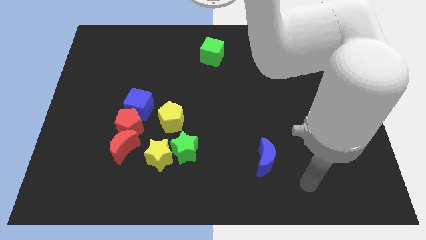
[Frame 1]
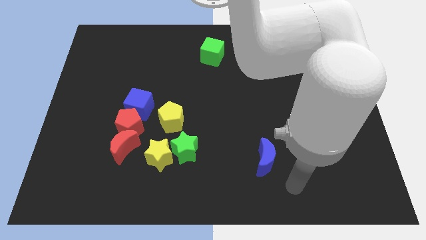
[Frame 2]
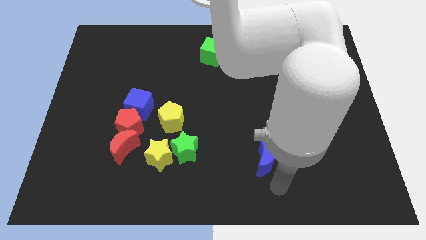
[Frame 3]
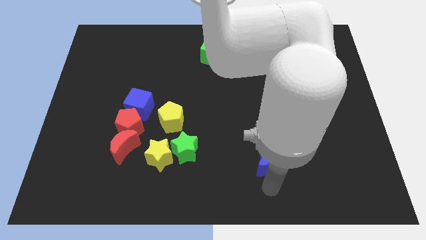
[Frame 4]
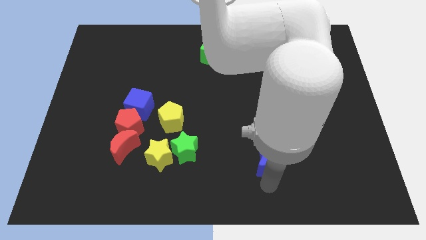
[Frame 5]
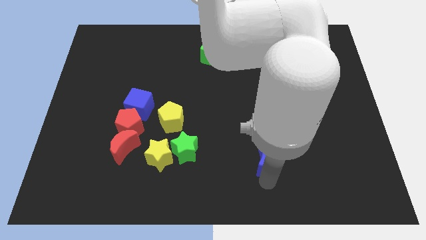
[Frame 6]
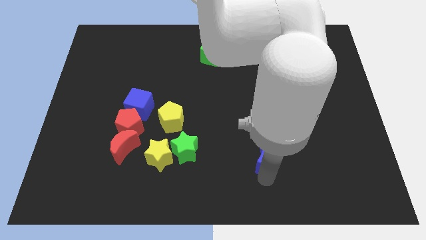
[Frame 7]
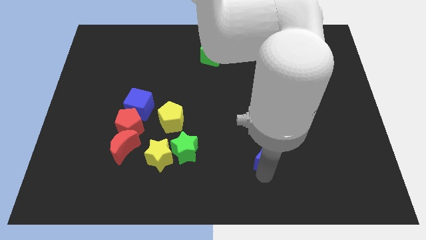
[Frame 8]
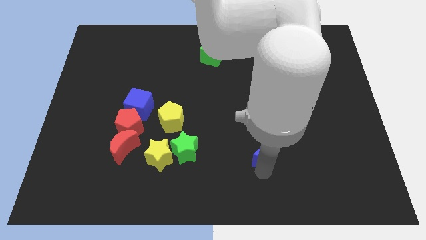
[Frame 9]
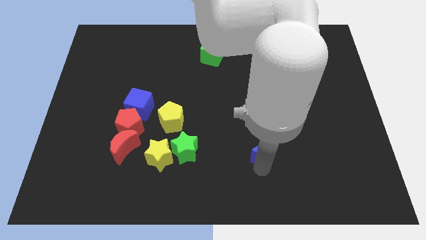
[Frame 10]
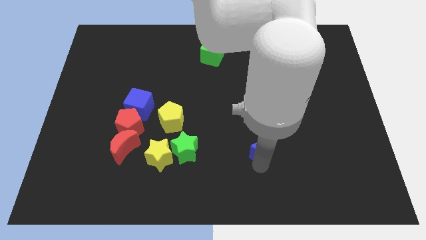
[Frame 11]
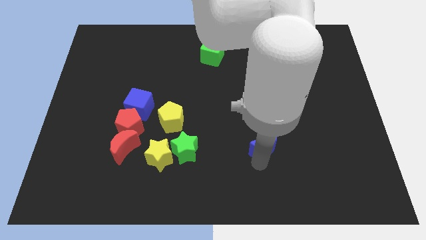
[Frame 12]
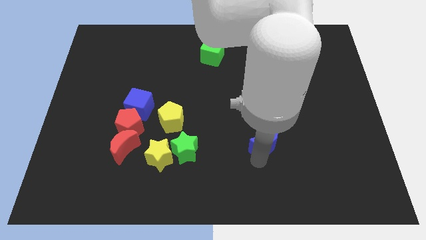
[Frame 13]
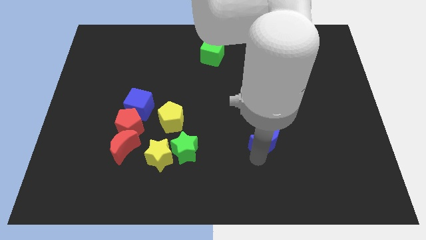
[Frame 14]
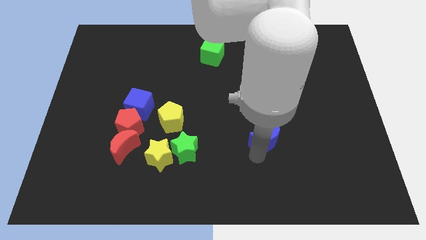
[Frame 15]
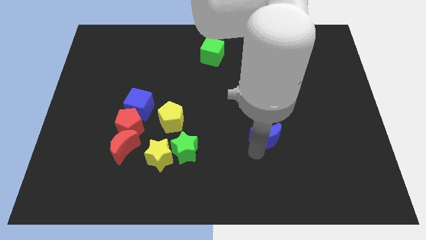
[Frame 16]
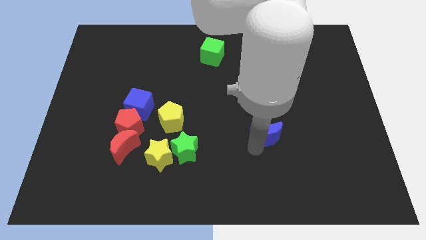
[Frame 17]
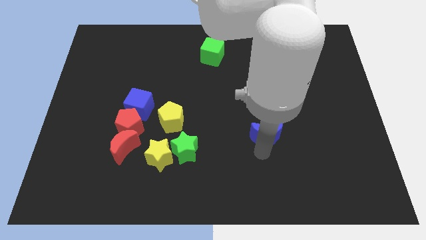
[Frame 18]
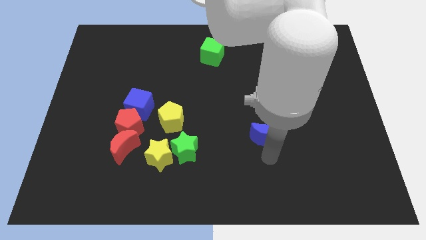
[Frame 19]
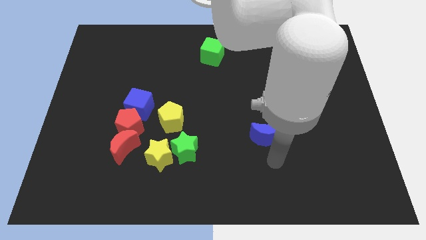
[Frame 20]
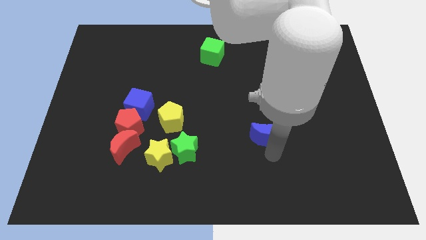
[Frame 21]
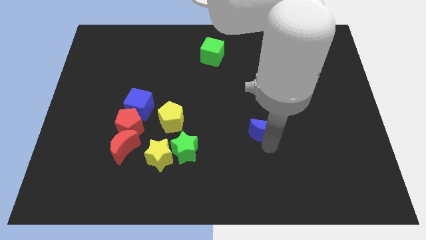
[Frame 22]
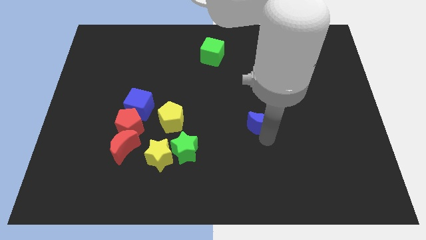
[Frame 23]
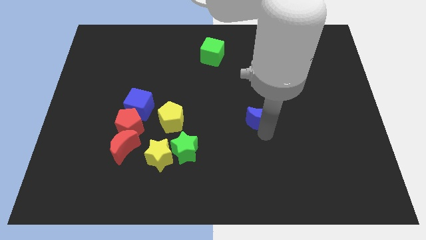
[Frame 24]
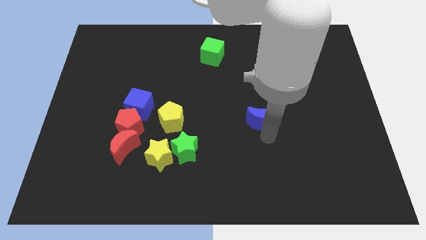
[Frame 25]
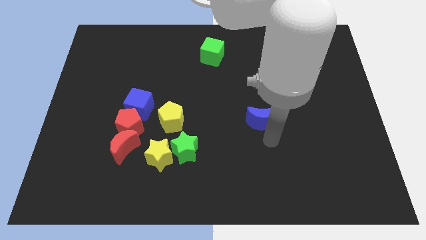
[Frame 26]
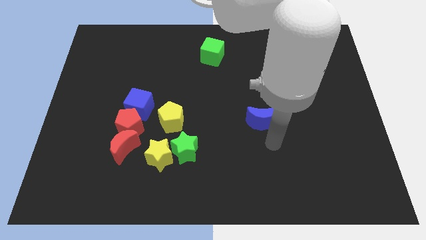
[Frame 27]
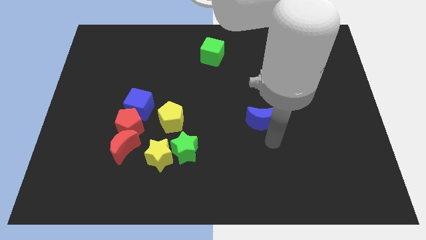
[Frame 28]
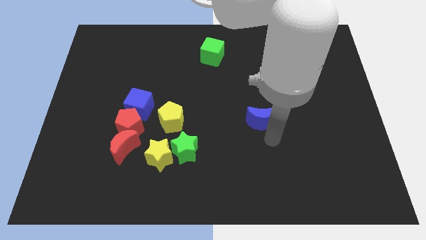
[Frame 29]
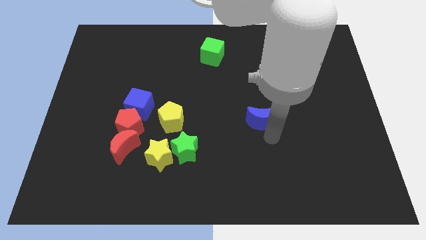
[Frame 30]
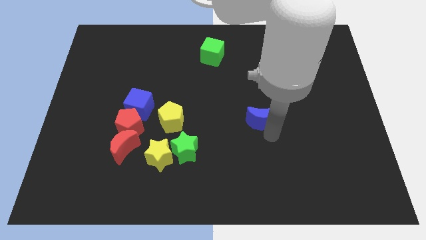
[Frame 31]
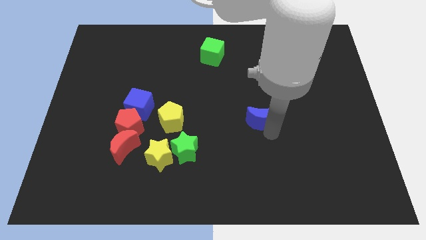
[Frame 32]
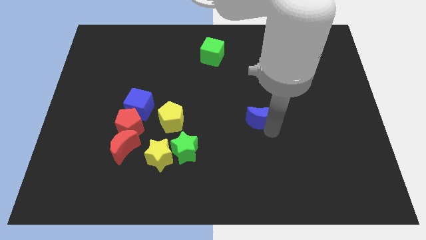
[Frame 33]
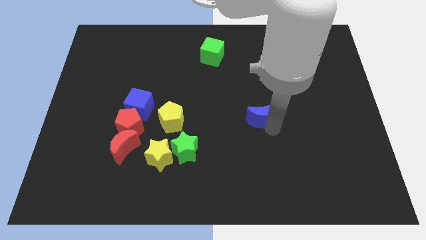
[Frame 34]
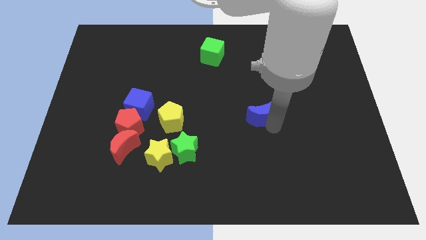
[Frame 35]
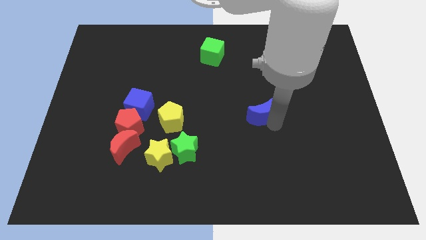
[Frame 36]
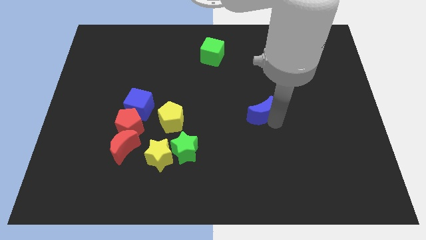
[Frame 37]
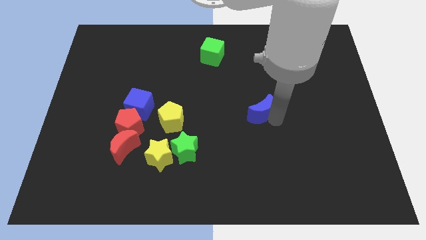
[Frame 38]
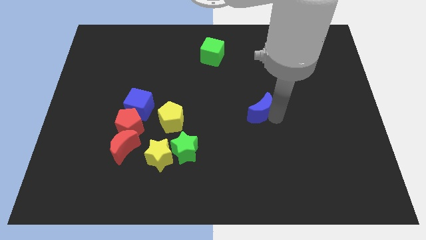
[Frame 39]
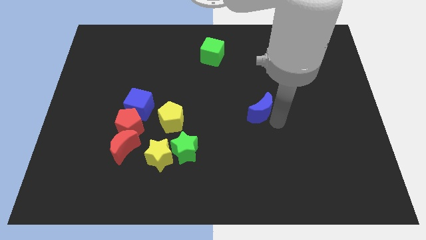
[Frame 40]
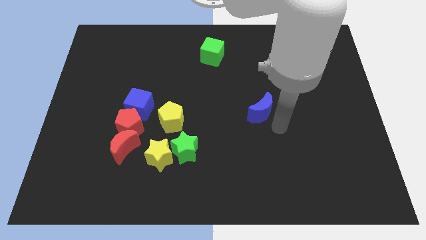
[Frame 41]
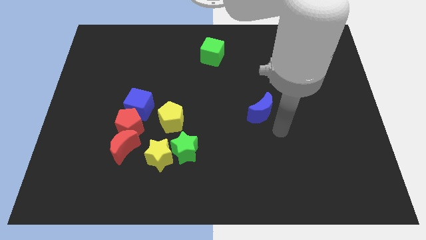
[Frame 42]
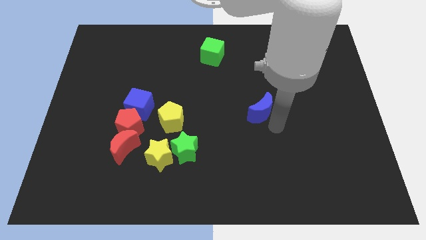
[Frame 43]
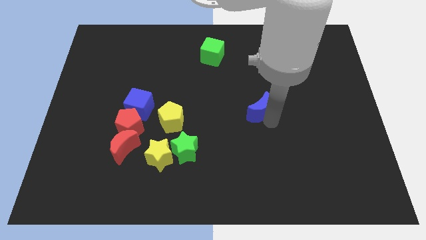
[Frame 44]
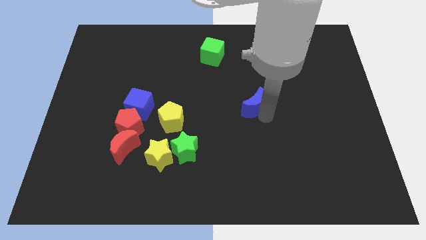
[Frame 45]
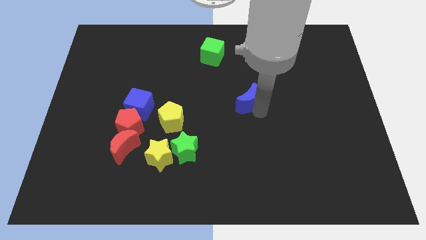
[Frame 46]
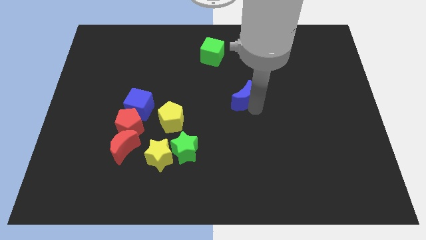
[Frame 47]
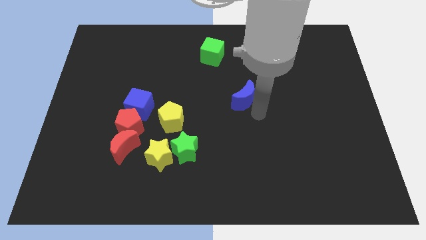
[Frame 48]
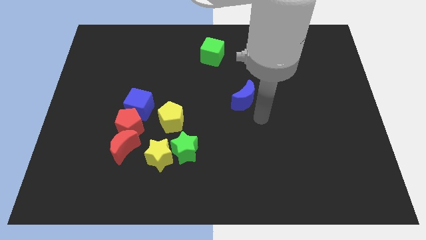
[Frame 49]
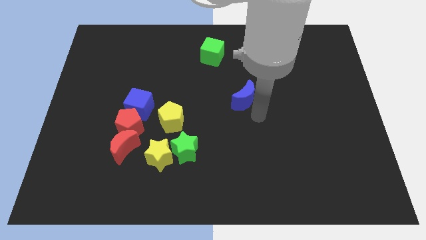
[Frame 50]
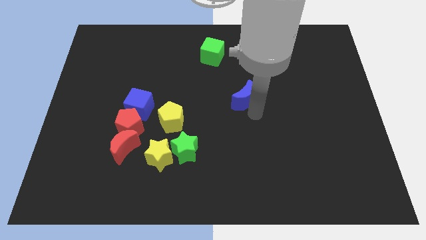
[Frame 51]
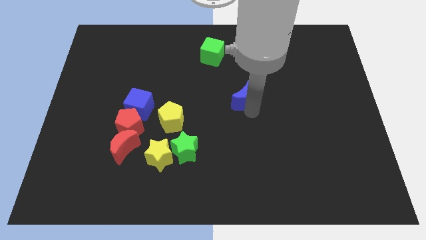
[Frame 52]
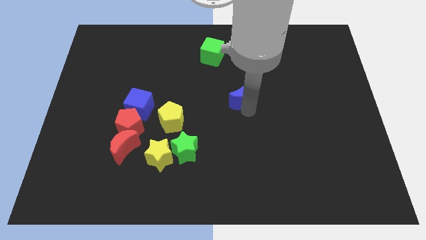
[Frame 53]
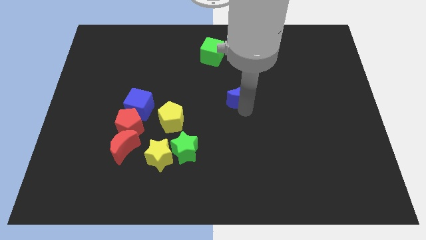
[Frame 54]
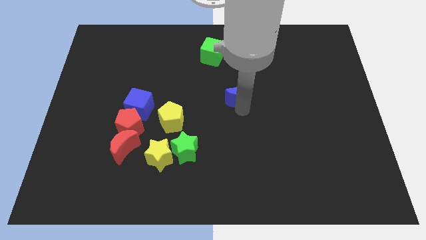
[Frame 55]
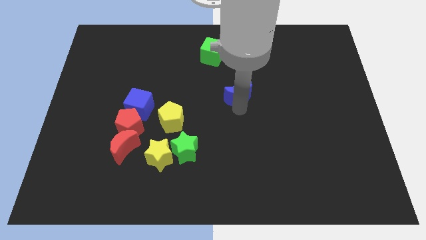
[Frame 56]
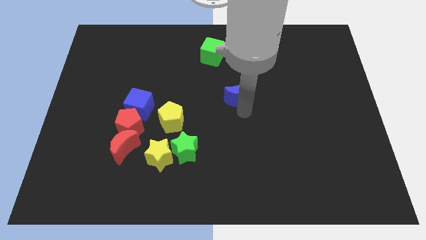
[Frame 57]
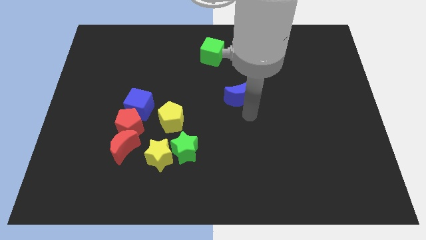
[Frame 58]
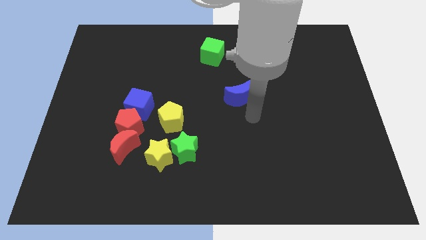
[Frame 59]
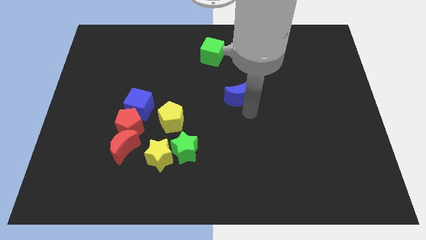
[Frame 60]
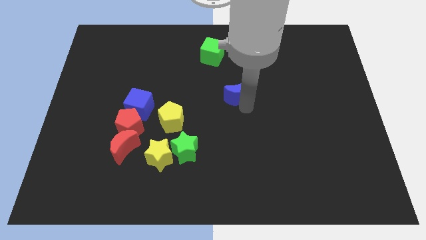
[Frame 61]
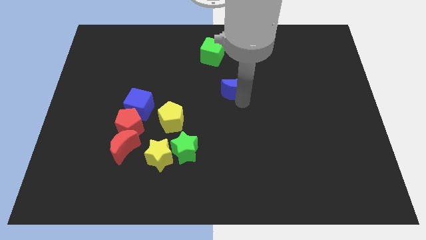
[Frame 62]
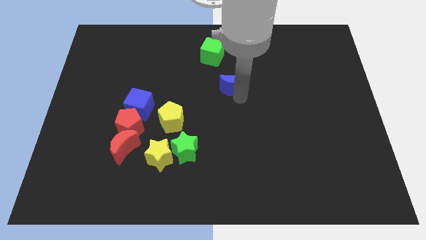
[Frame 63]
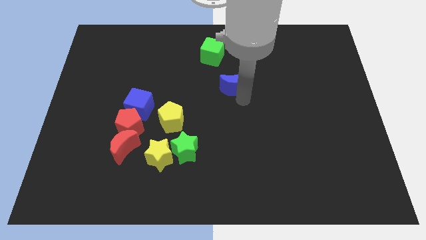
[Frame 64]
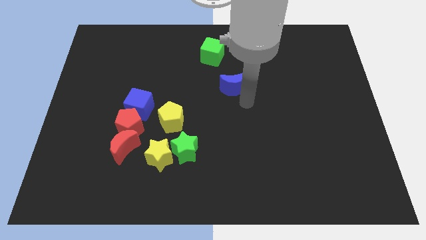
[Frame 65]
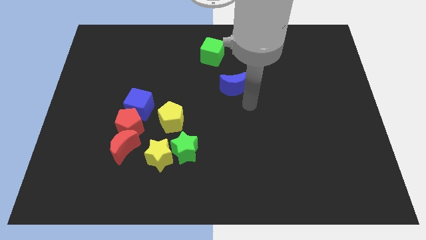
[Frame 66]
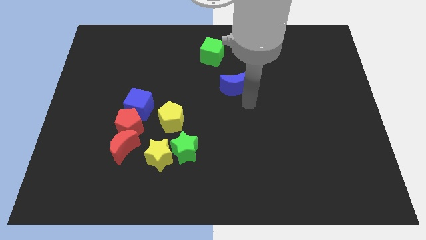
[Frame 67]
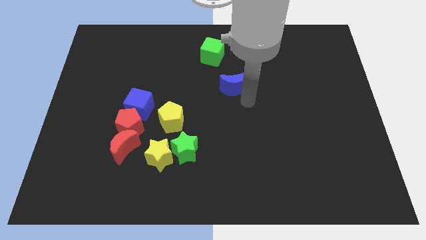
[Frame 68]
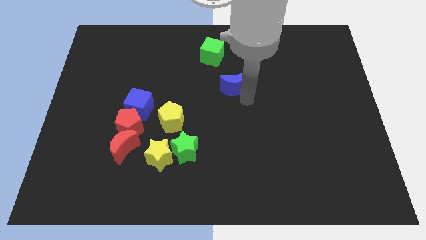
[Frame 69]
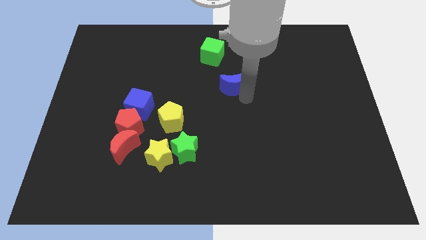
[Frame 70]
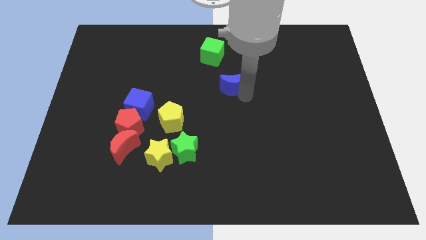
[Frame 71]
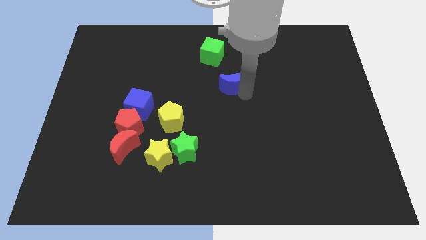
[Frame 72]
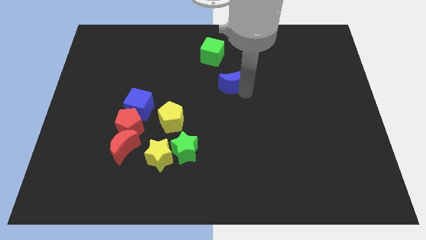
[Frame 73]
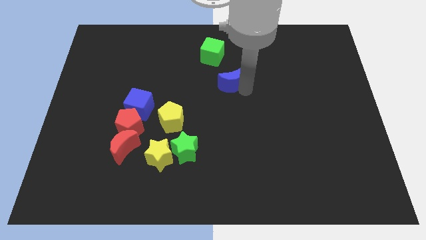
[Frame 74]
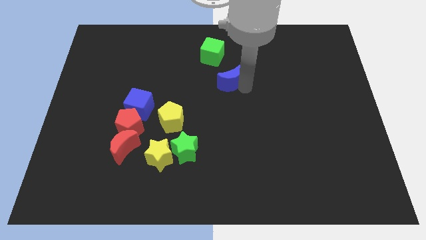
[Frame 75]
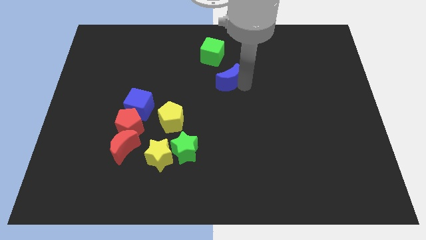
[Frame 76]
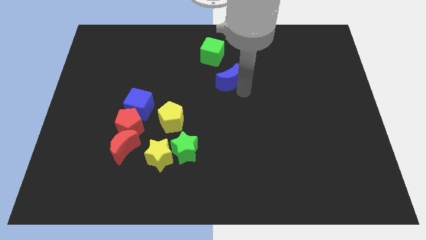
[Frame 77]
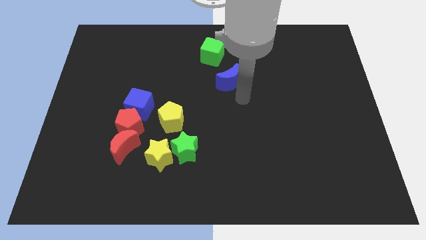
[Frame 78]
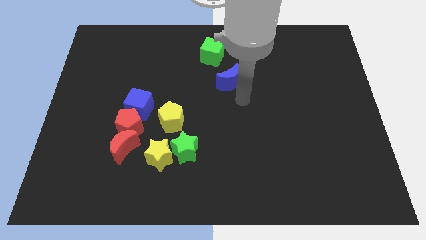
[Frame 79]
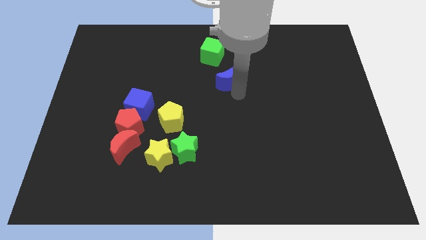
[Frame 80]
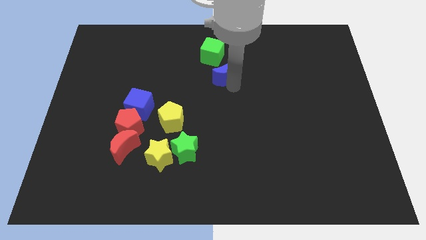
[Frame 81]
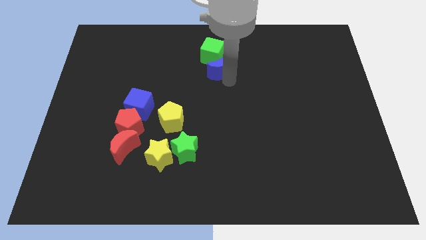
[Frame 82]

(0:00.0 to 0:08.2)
put the blue moon to the green cube
